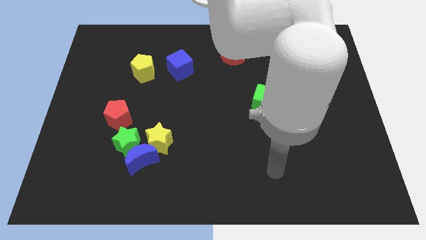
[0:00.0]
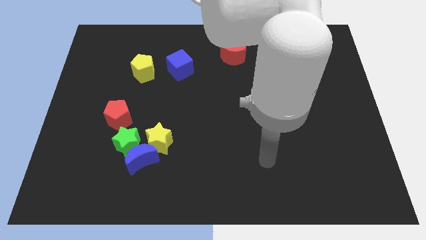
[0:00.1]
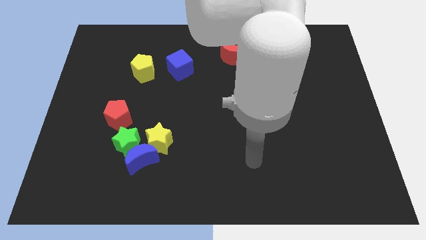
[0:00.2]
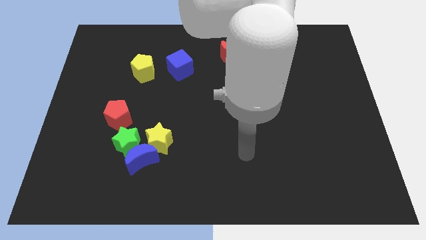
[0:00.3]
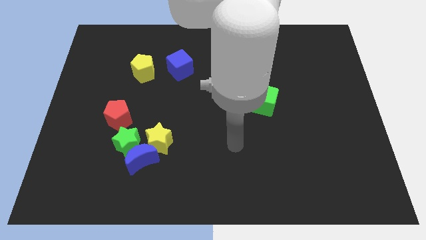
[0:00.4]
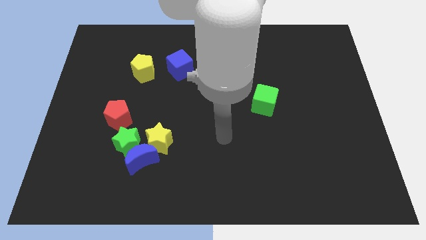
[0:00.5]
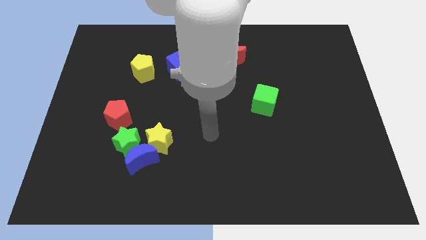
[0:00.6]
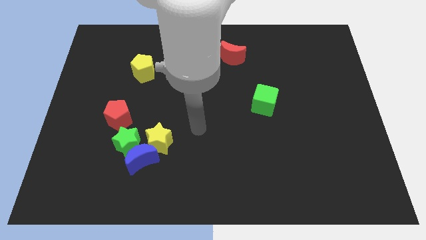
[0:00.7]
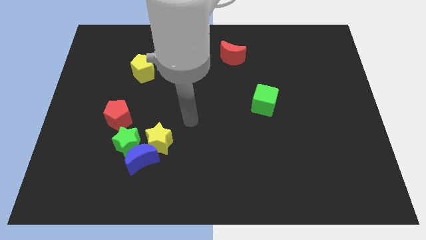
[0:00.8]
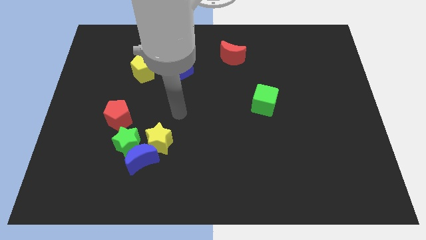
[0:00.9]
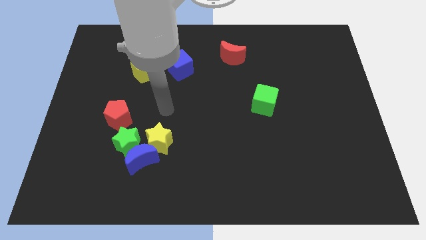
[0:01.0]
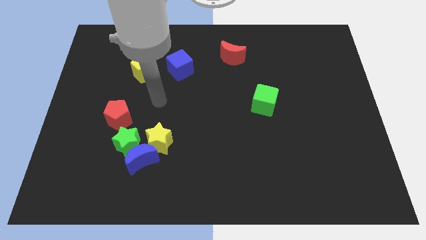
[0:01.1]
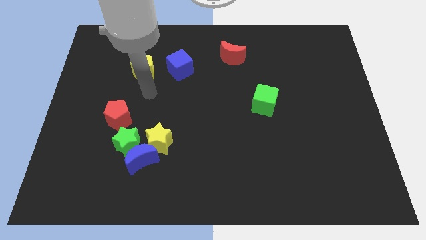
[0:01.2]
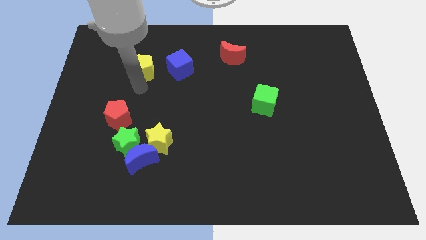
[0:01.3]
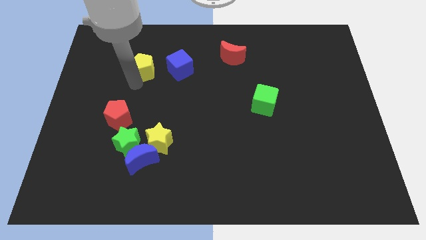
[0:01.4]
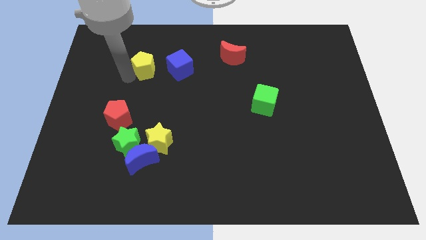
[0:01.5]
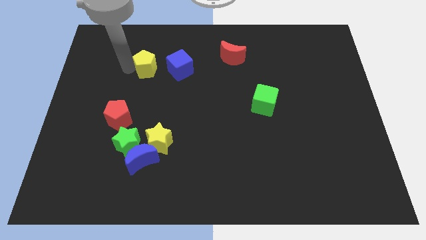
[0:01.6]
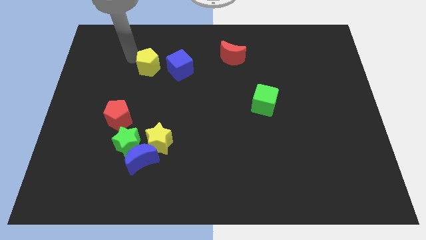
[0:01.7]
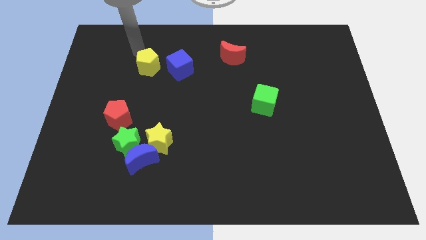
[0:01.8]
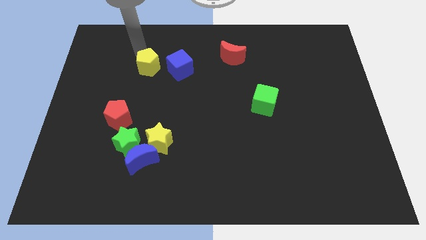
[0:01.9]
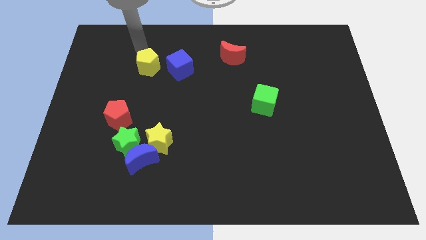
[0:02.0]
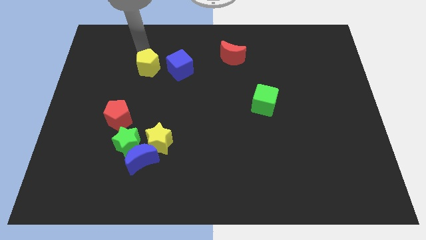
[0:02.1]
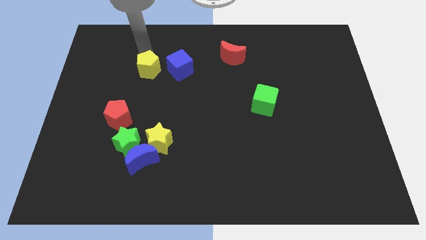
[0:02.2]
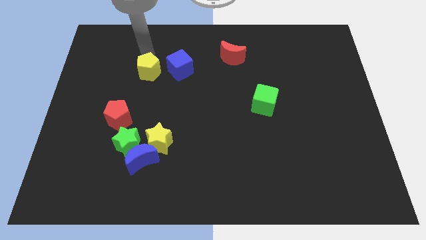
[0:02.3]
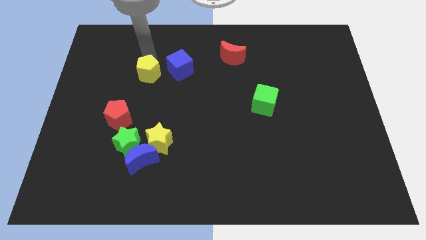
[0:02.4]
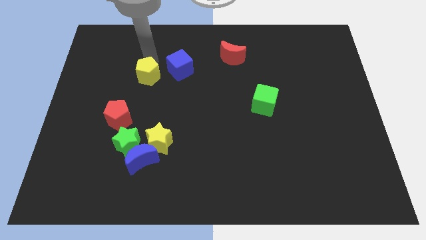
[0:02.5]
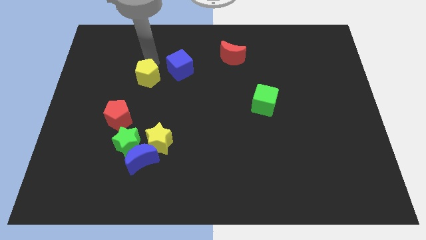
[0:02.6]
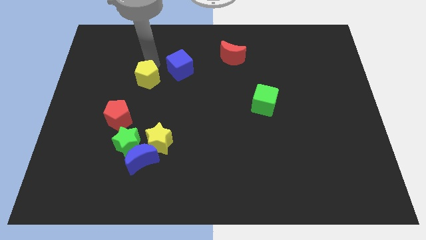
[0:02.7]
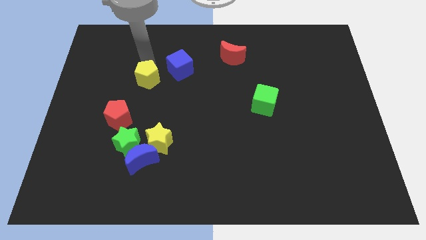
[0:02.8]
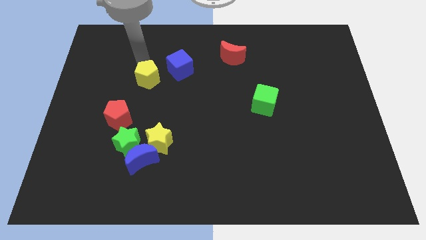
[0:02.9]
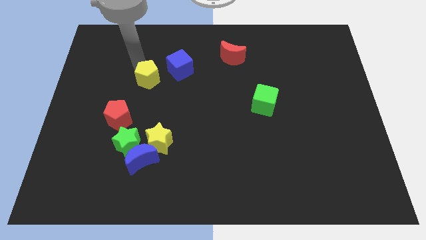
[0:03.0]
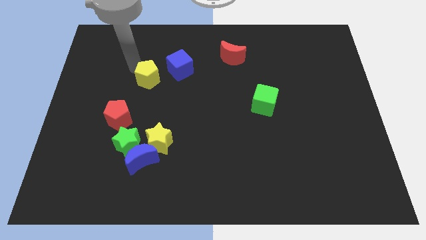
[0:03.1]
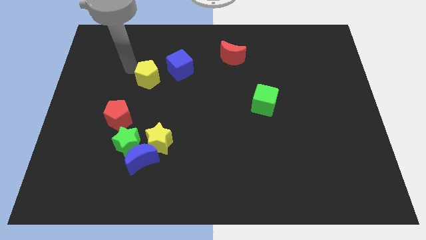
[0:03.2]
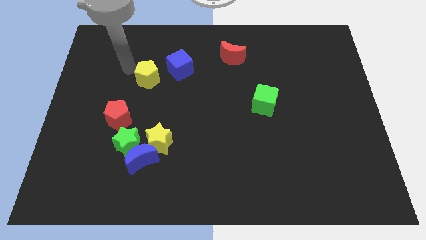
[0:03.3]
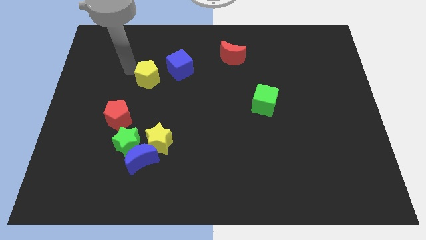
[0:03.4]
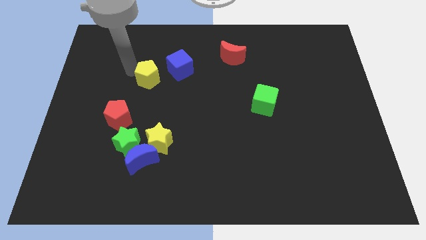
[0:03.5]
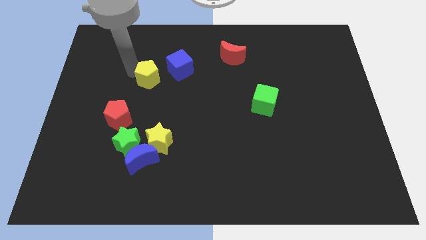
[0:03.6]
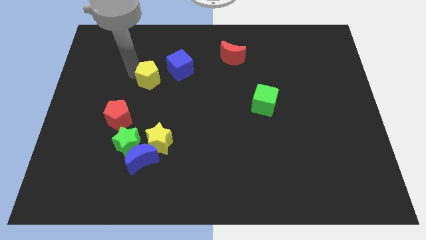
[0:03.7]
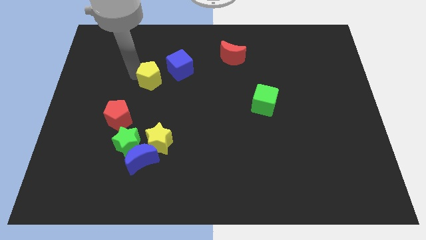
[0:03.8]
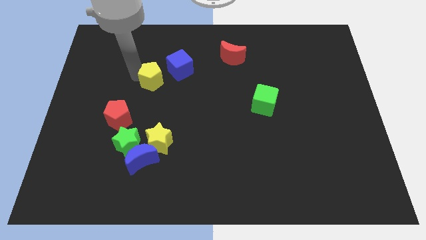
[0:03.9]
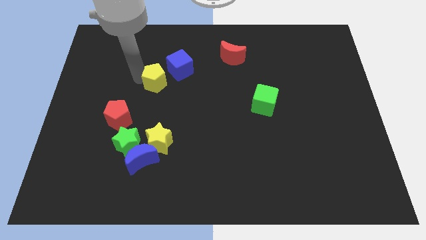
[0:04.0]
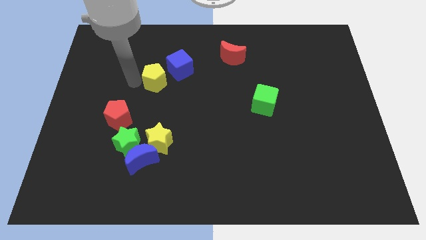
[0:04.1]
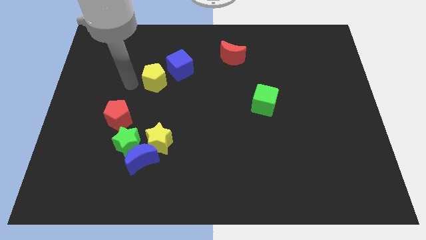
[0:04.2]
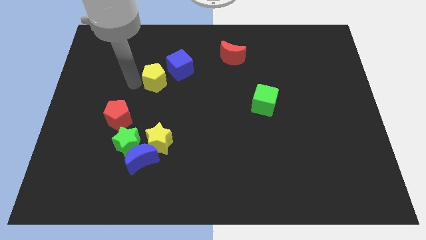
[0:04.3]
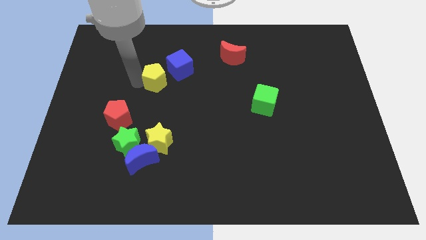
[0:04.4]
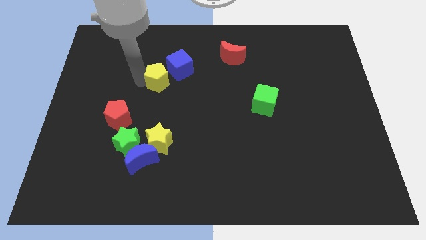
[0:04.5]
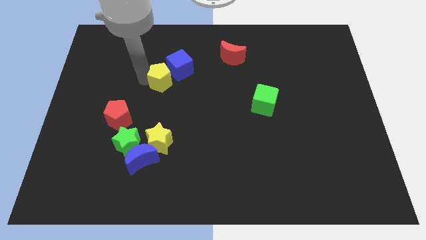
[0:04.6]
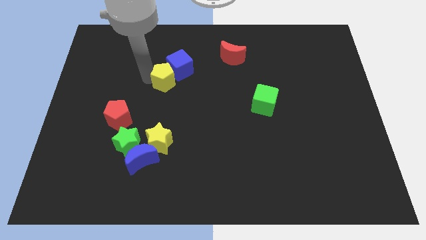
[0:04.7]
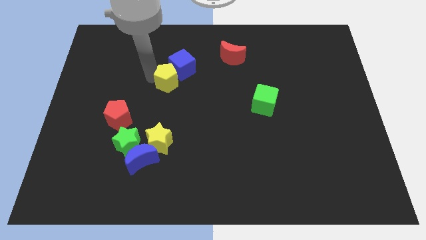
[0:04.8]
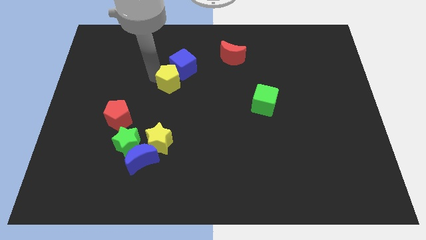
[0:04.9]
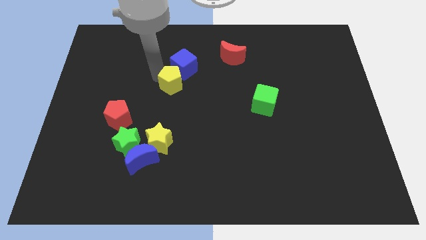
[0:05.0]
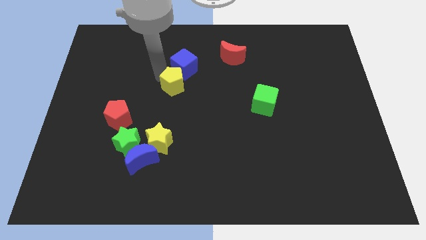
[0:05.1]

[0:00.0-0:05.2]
slightly slide the yellow pentagon right

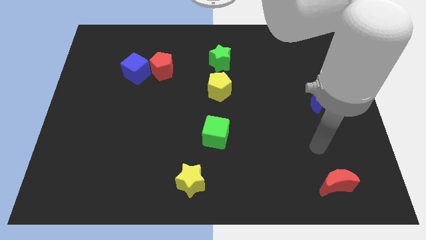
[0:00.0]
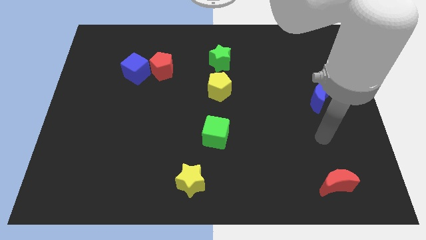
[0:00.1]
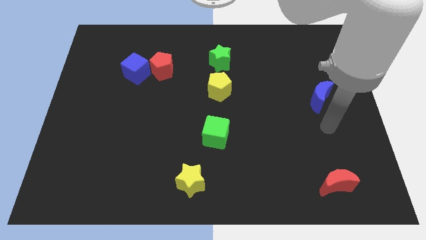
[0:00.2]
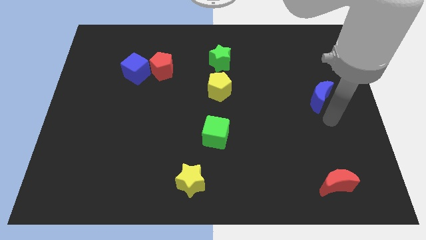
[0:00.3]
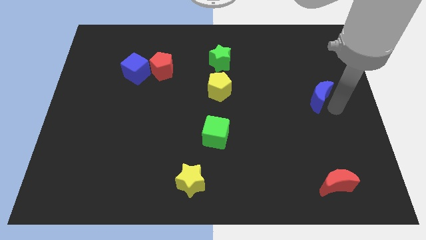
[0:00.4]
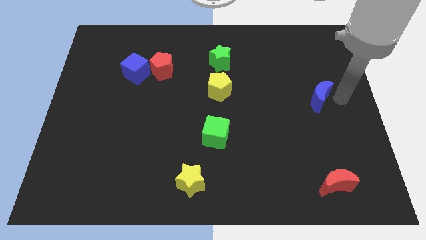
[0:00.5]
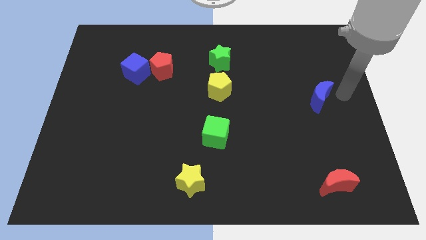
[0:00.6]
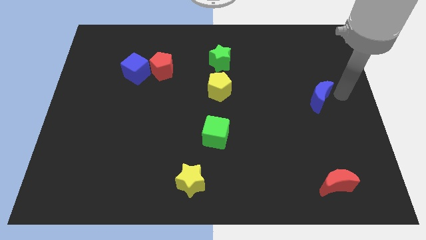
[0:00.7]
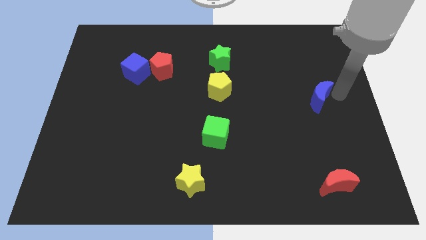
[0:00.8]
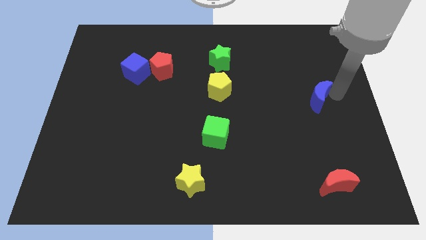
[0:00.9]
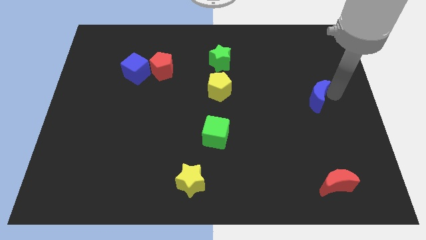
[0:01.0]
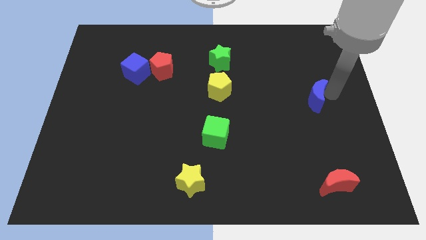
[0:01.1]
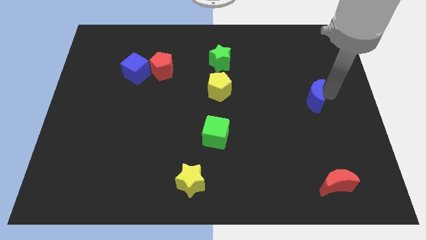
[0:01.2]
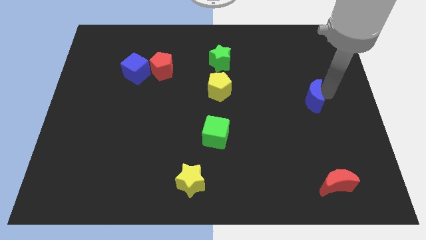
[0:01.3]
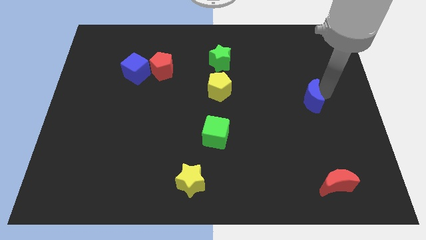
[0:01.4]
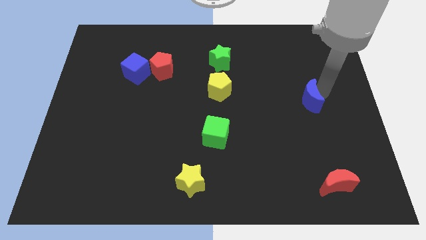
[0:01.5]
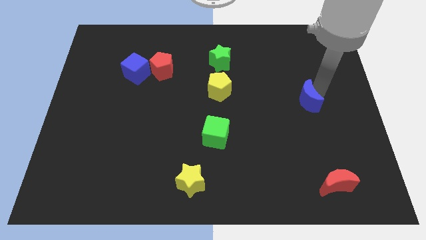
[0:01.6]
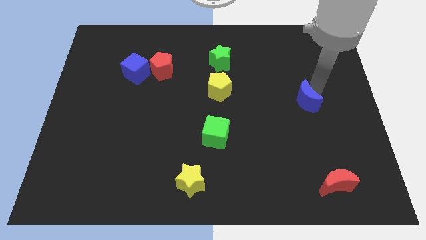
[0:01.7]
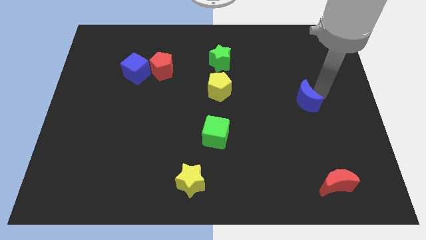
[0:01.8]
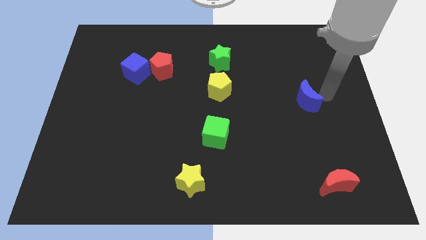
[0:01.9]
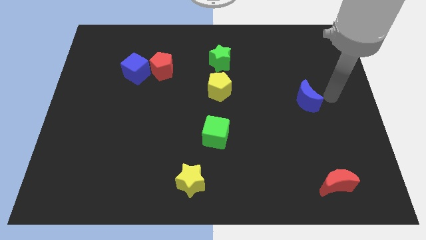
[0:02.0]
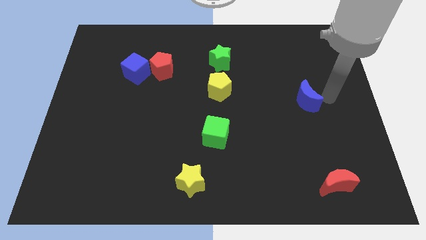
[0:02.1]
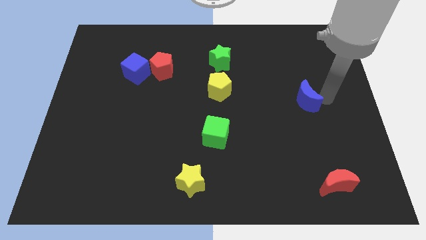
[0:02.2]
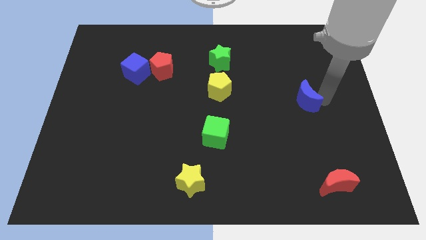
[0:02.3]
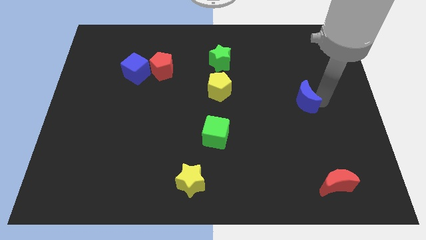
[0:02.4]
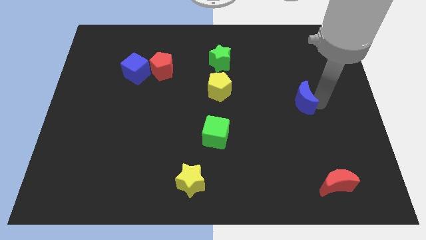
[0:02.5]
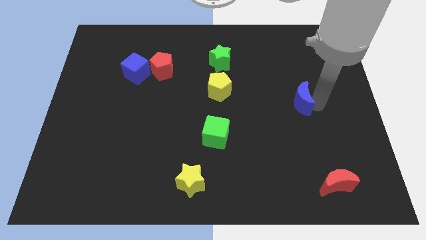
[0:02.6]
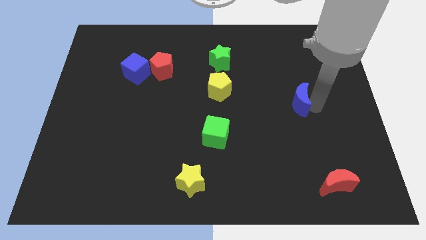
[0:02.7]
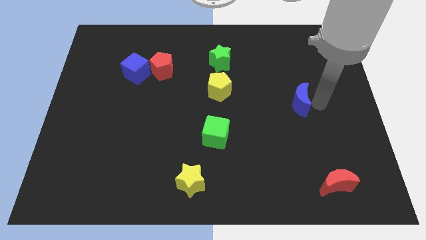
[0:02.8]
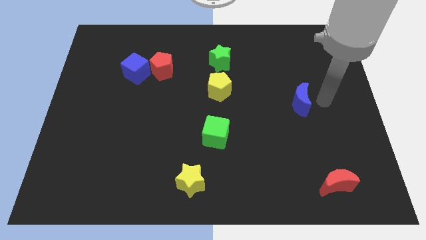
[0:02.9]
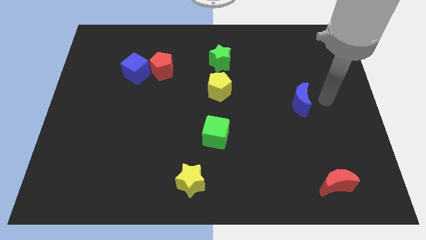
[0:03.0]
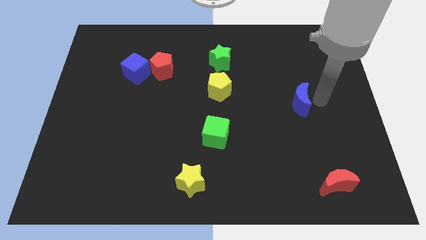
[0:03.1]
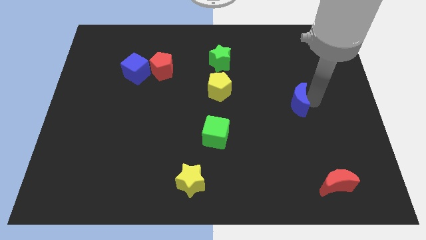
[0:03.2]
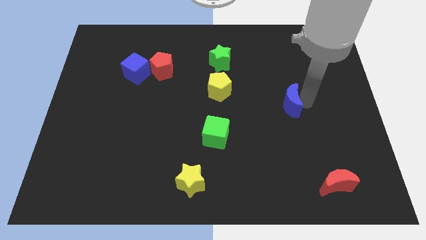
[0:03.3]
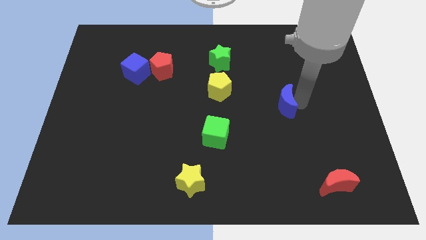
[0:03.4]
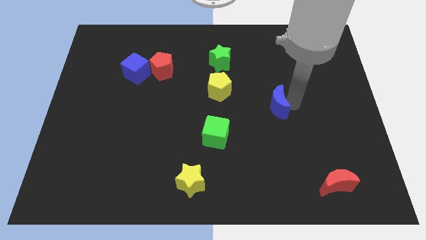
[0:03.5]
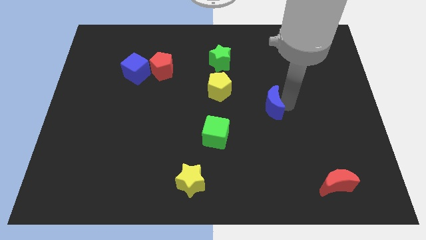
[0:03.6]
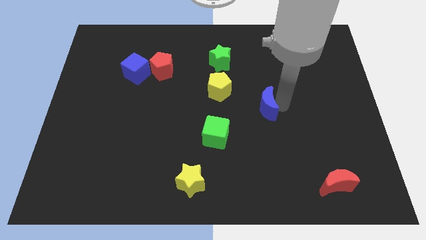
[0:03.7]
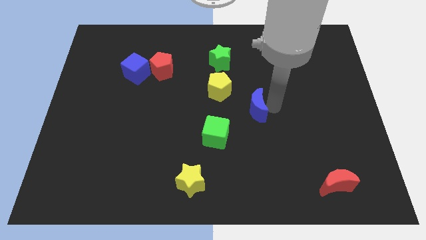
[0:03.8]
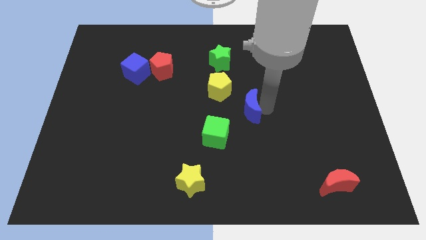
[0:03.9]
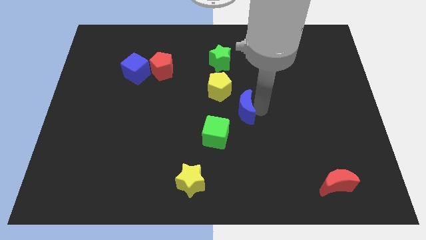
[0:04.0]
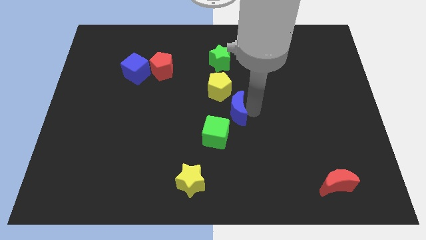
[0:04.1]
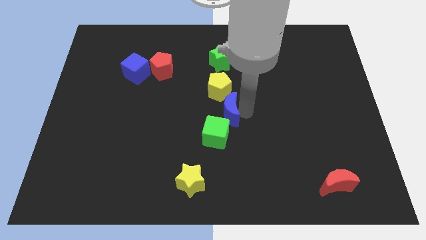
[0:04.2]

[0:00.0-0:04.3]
move the blue moon left
